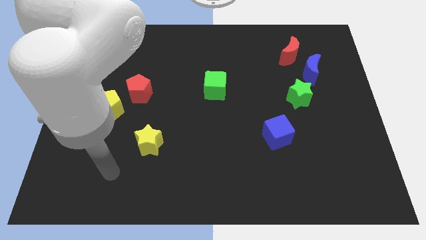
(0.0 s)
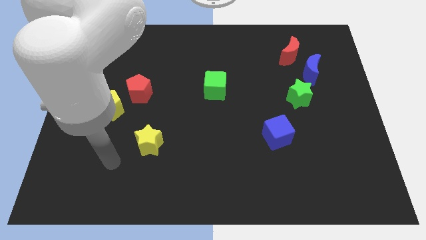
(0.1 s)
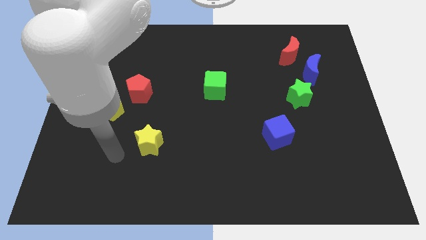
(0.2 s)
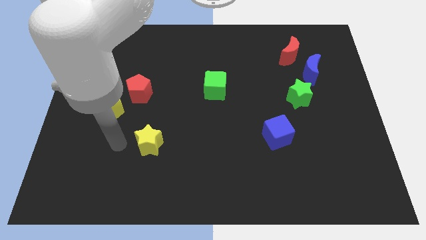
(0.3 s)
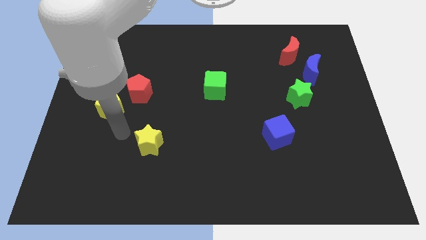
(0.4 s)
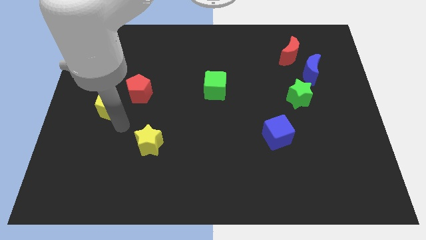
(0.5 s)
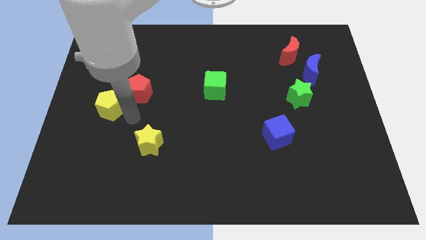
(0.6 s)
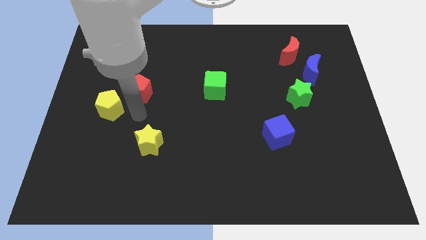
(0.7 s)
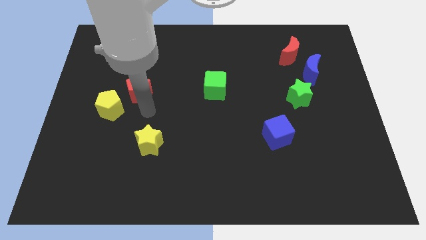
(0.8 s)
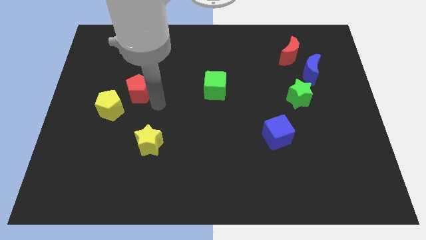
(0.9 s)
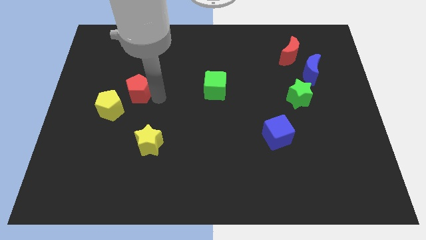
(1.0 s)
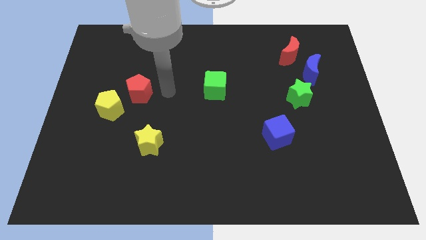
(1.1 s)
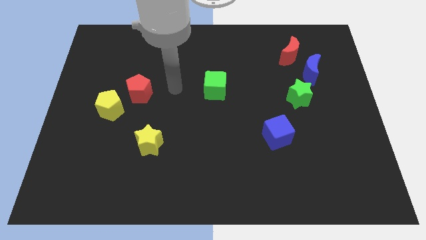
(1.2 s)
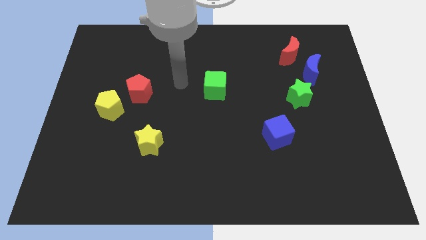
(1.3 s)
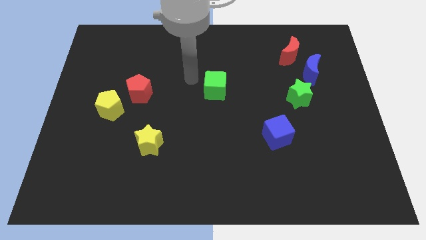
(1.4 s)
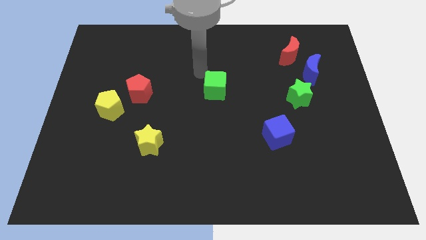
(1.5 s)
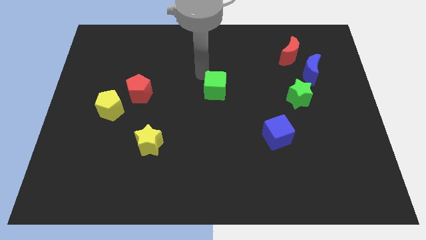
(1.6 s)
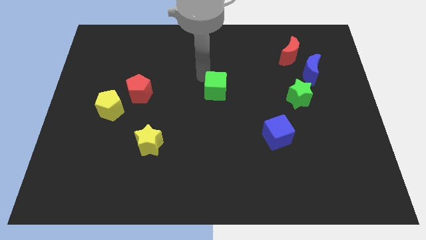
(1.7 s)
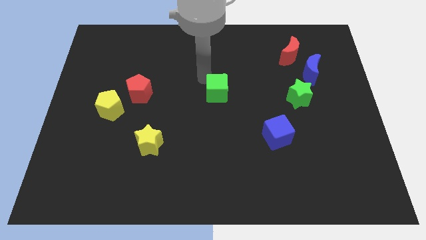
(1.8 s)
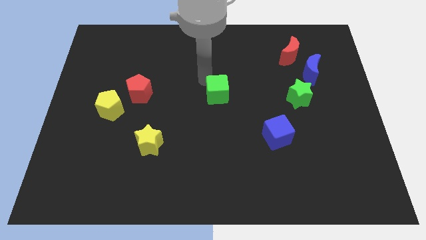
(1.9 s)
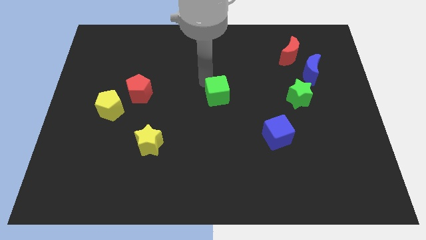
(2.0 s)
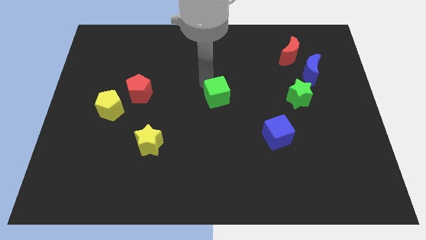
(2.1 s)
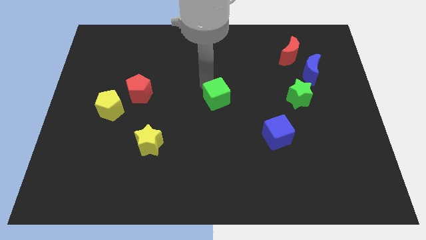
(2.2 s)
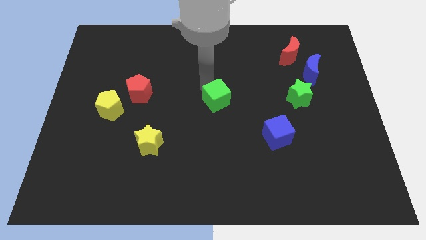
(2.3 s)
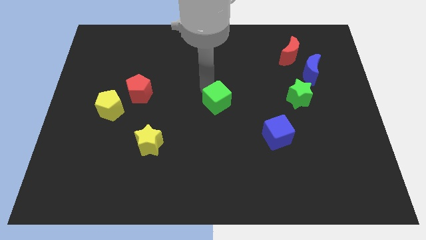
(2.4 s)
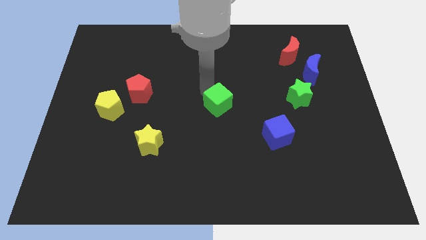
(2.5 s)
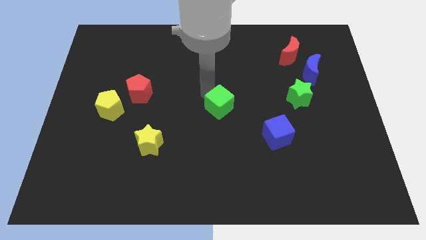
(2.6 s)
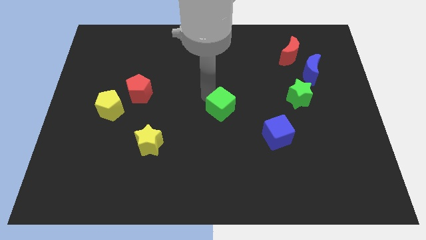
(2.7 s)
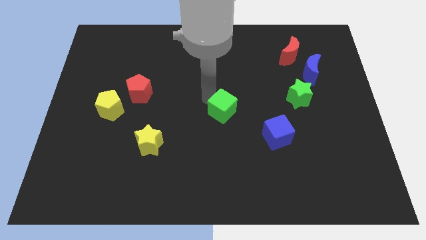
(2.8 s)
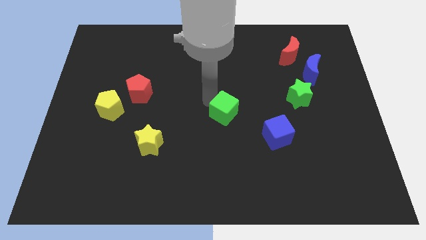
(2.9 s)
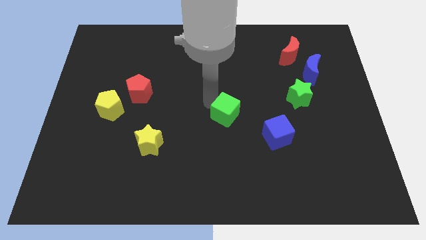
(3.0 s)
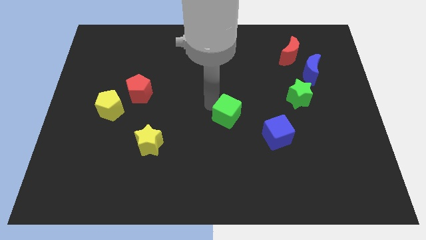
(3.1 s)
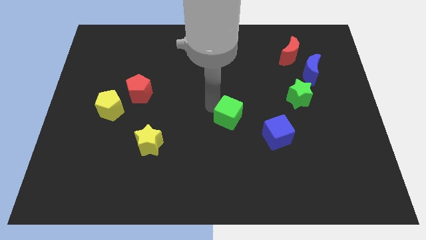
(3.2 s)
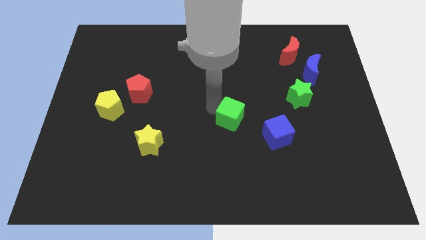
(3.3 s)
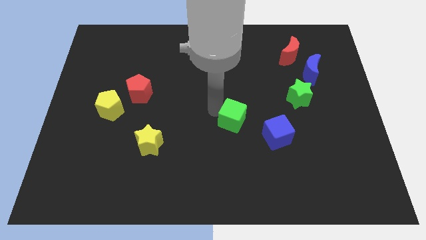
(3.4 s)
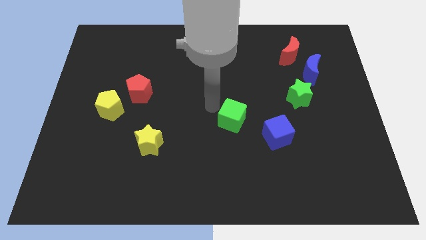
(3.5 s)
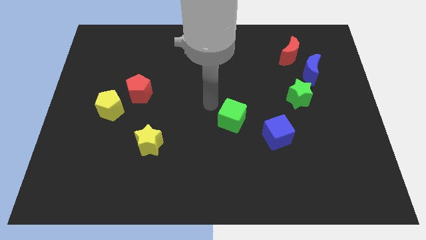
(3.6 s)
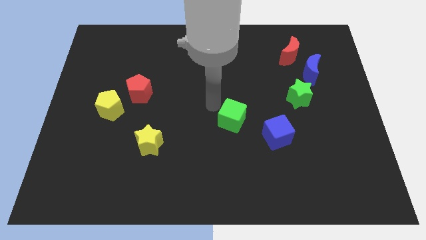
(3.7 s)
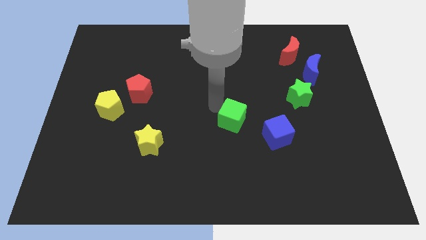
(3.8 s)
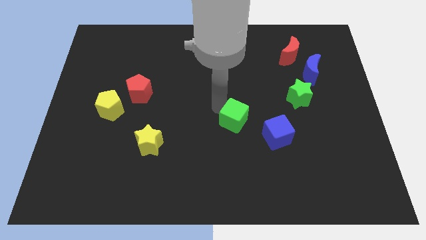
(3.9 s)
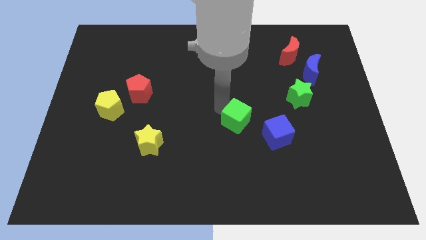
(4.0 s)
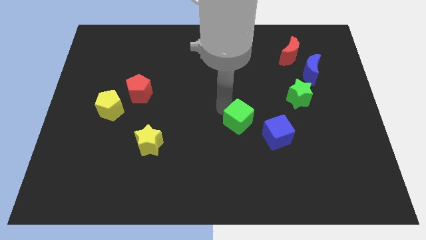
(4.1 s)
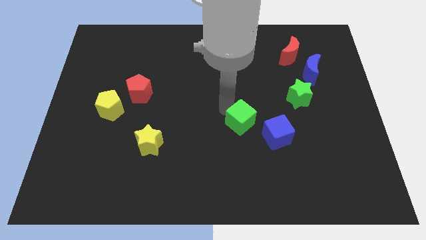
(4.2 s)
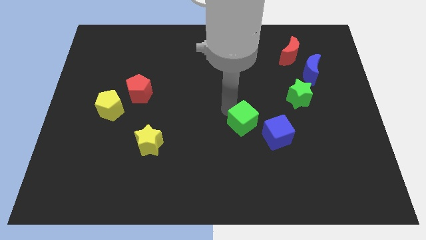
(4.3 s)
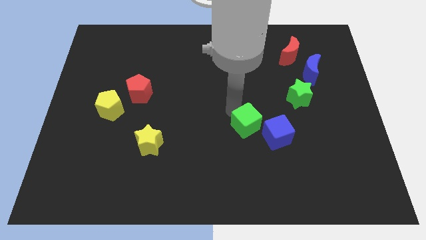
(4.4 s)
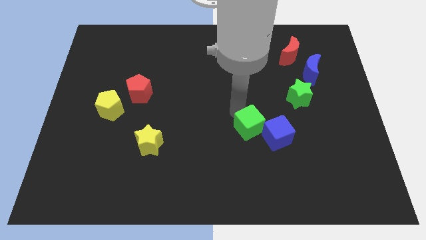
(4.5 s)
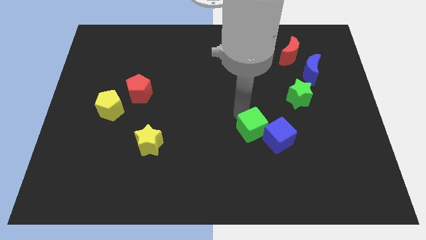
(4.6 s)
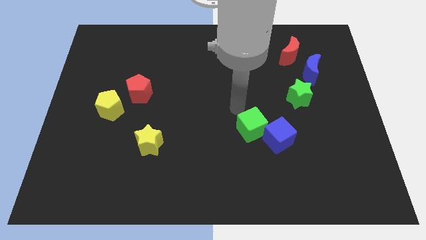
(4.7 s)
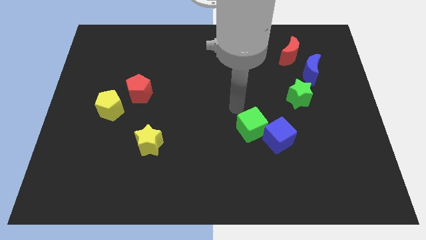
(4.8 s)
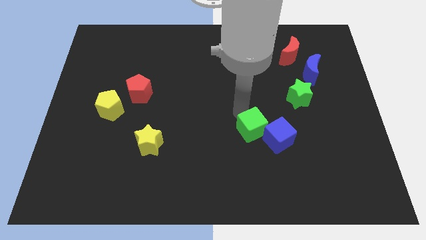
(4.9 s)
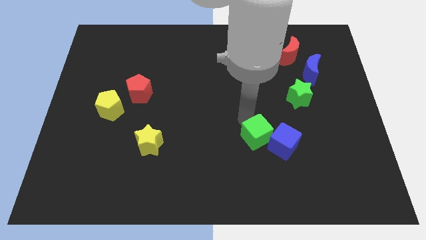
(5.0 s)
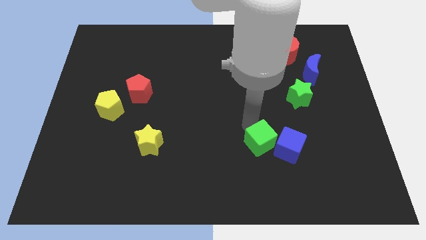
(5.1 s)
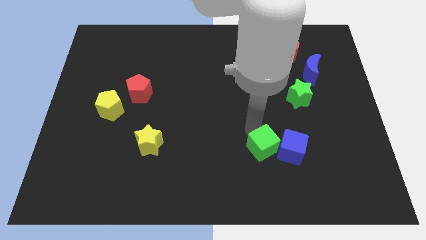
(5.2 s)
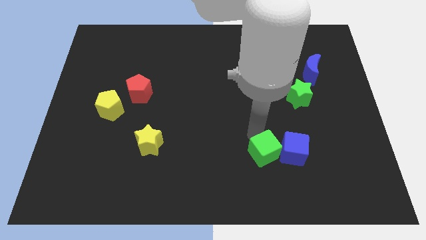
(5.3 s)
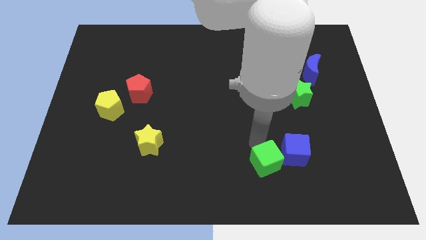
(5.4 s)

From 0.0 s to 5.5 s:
move the green cube down and right

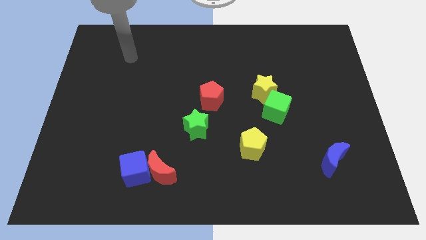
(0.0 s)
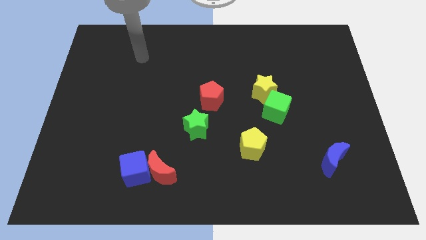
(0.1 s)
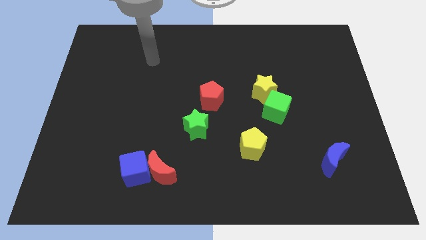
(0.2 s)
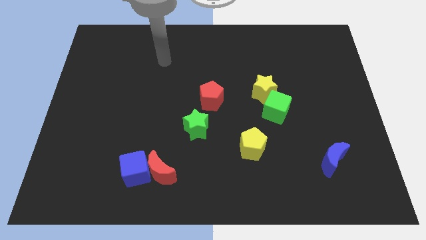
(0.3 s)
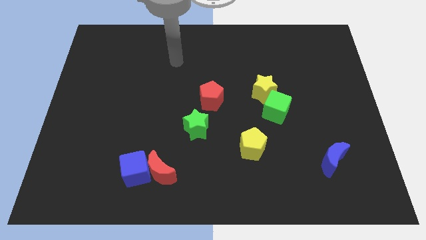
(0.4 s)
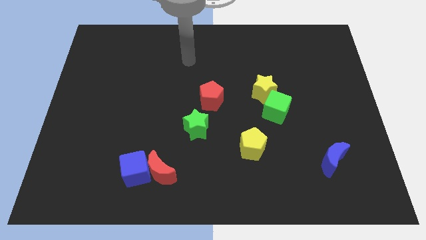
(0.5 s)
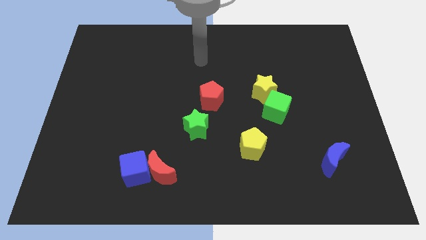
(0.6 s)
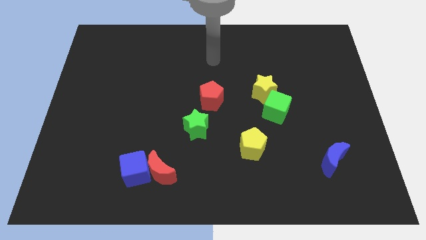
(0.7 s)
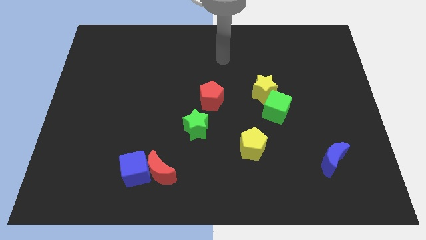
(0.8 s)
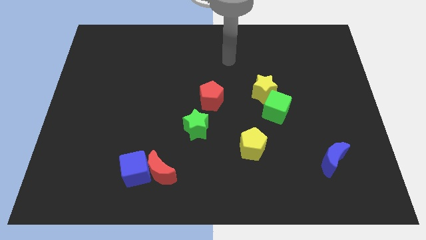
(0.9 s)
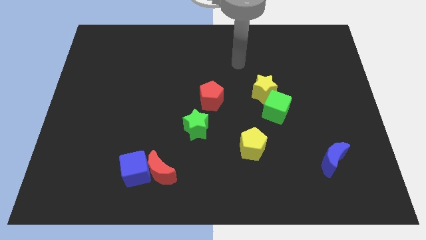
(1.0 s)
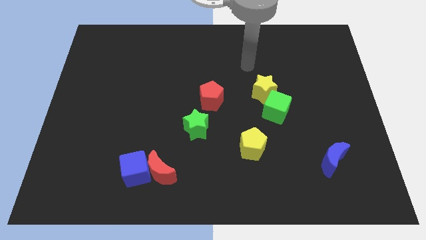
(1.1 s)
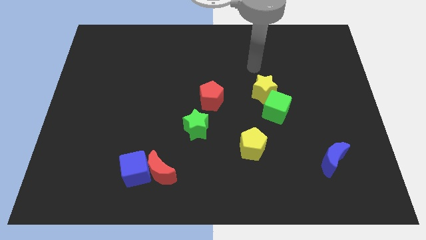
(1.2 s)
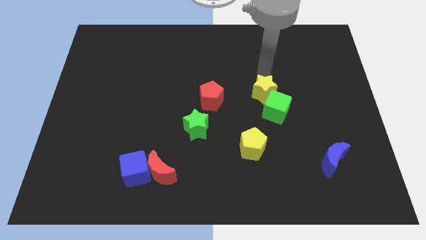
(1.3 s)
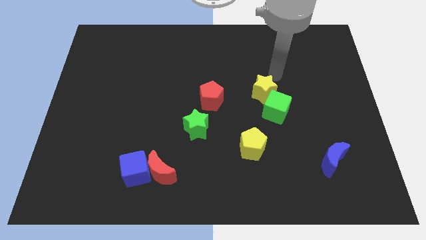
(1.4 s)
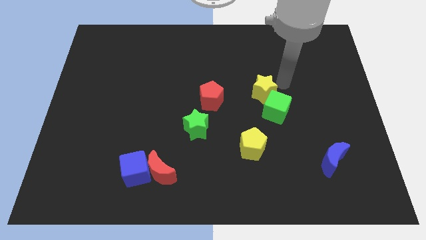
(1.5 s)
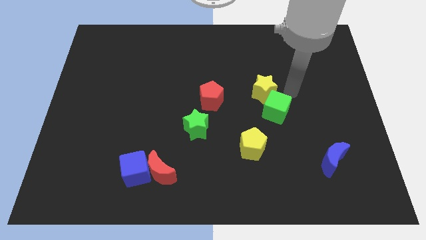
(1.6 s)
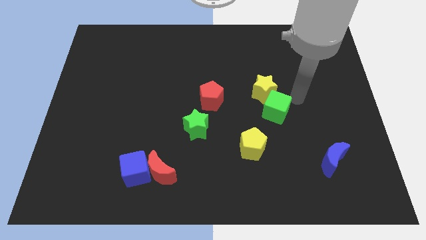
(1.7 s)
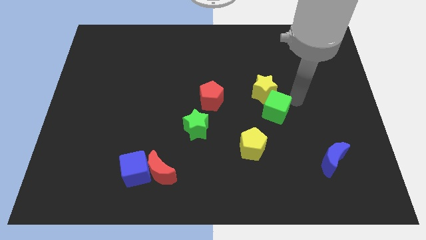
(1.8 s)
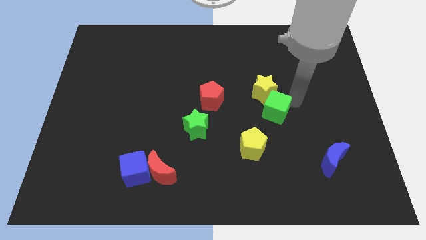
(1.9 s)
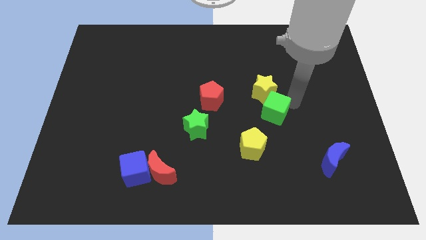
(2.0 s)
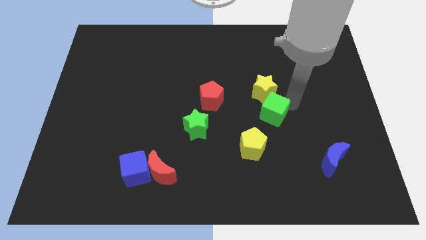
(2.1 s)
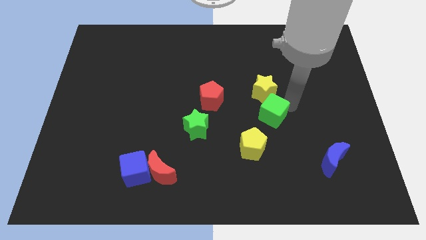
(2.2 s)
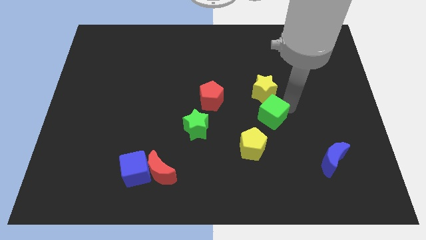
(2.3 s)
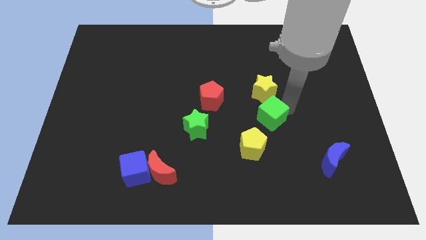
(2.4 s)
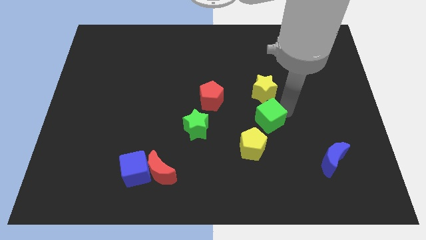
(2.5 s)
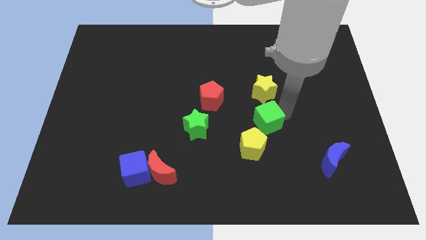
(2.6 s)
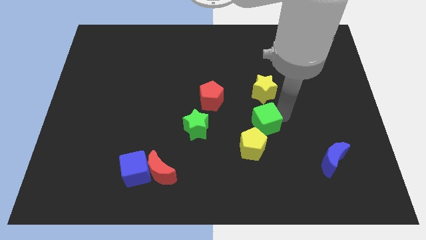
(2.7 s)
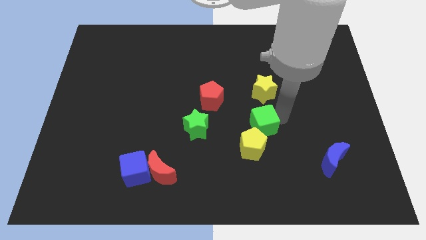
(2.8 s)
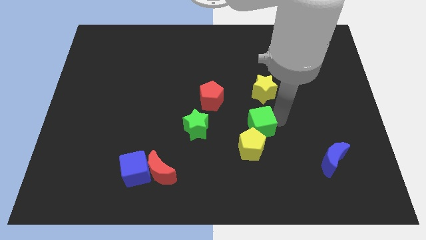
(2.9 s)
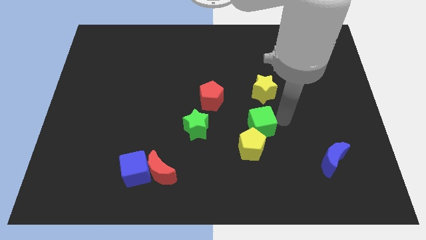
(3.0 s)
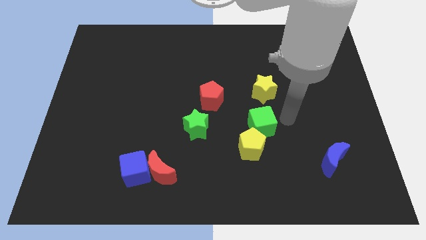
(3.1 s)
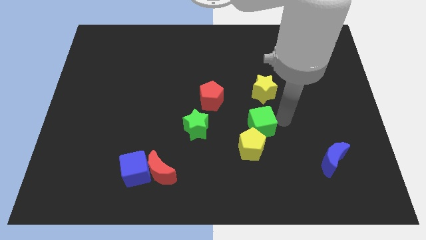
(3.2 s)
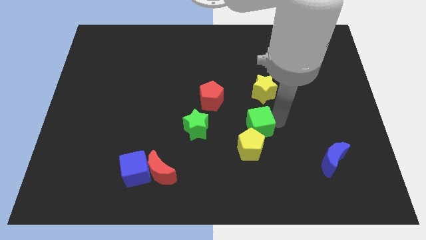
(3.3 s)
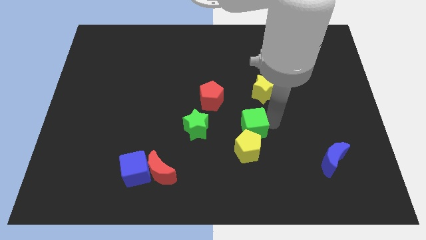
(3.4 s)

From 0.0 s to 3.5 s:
slide the green cube a bit down and left
